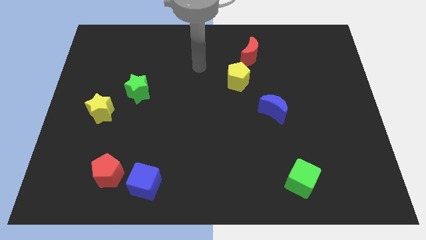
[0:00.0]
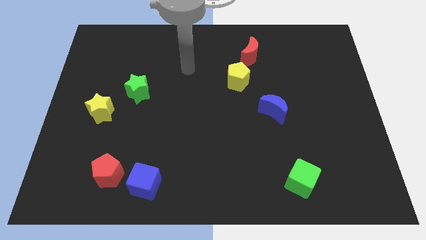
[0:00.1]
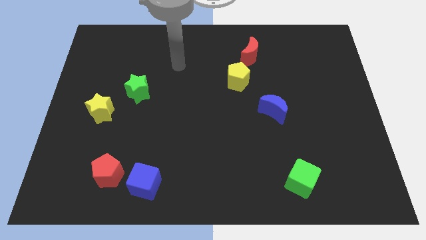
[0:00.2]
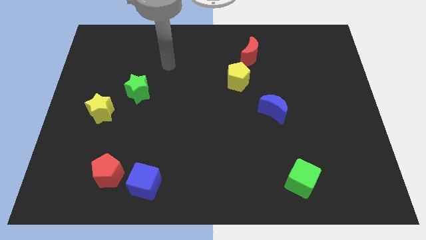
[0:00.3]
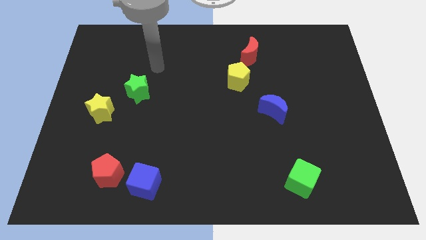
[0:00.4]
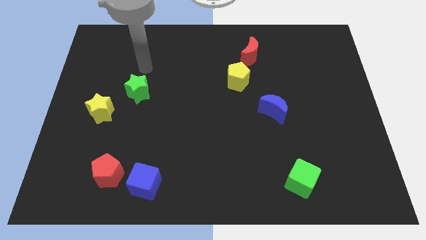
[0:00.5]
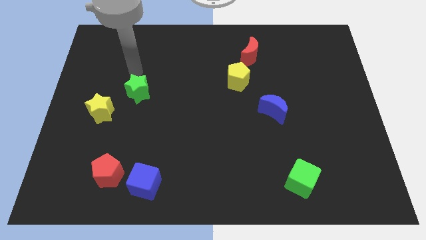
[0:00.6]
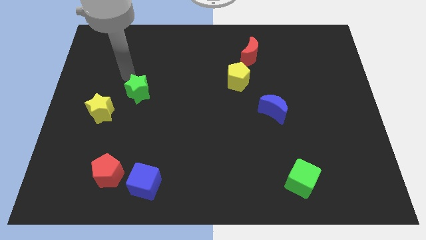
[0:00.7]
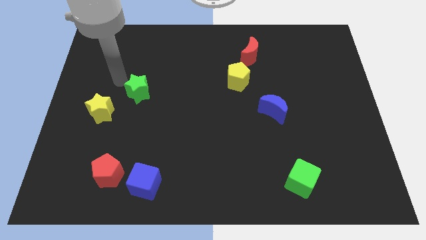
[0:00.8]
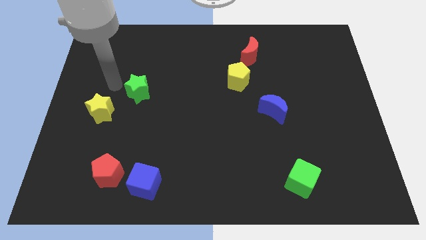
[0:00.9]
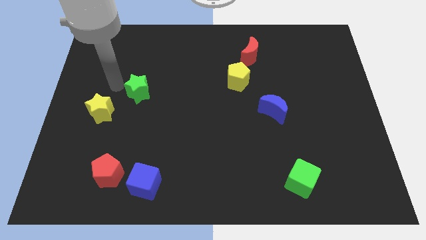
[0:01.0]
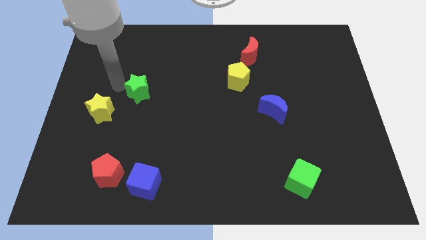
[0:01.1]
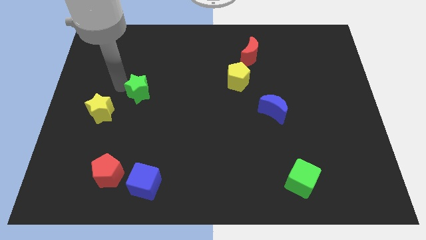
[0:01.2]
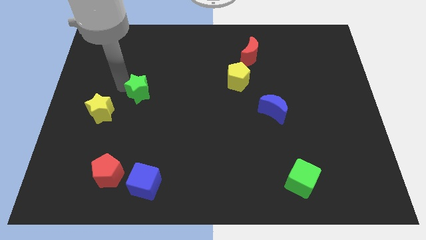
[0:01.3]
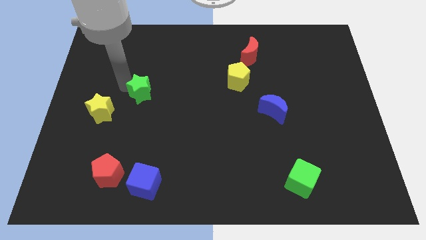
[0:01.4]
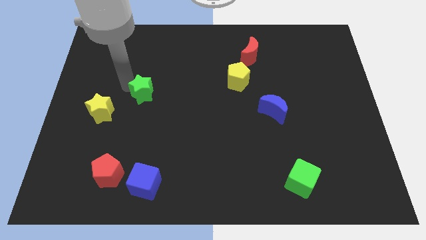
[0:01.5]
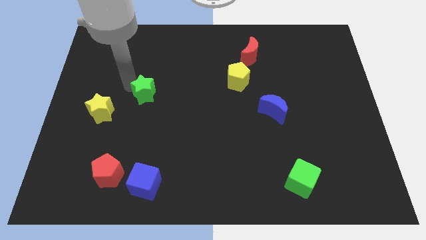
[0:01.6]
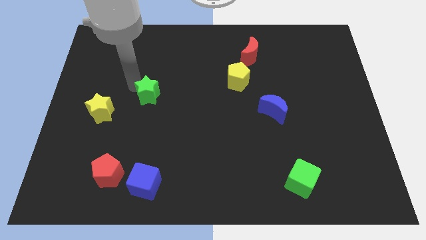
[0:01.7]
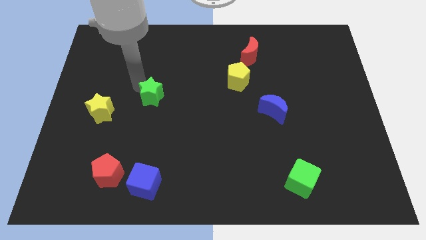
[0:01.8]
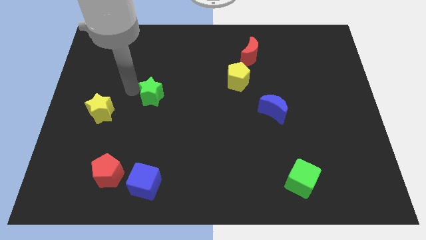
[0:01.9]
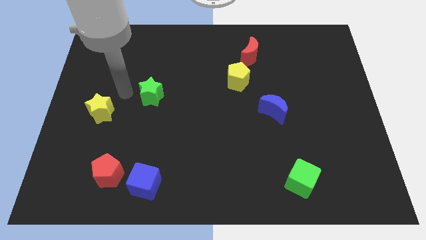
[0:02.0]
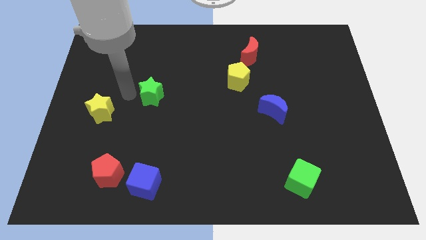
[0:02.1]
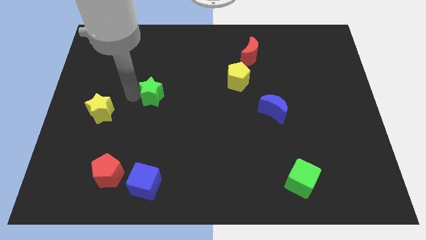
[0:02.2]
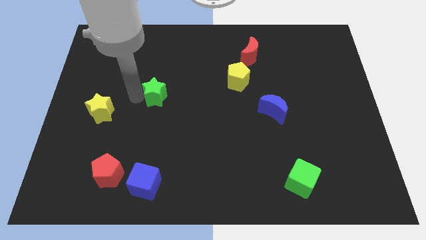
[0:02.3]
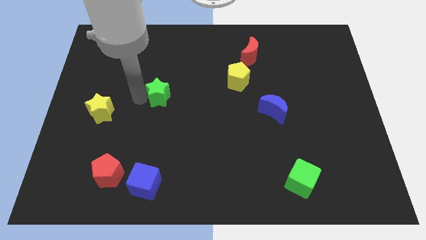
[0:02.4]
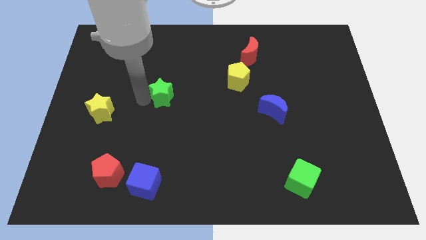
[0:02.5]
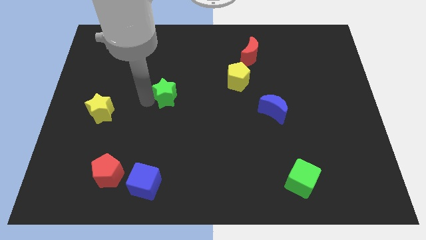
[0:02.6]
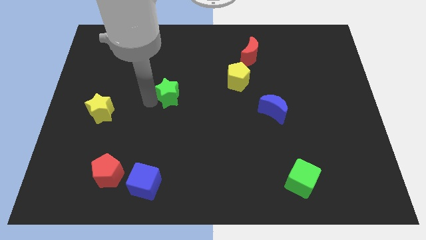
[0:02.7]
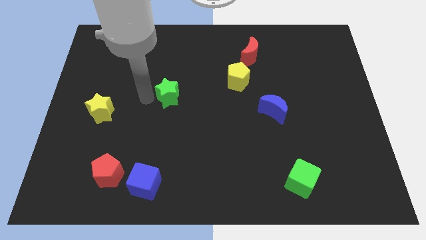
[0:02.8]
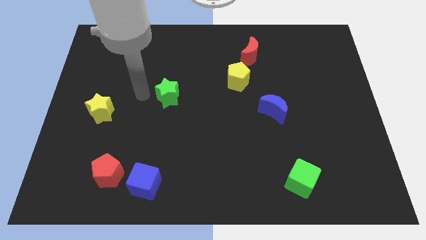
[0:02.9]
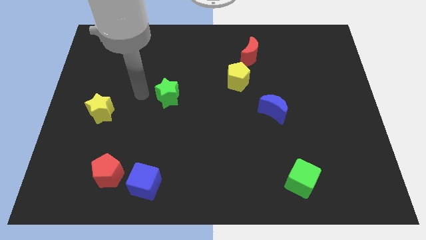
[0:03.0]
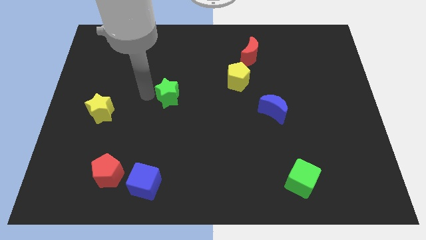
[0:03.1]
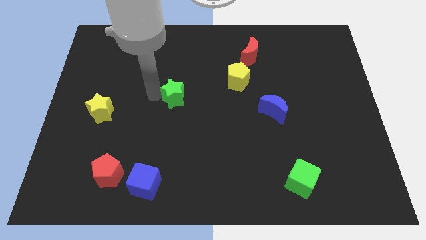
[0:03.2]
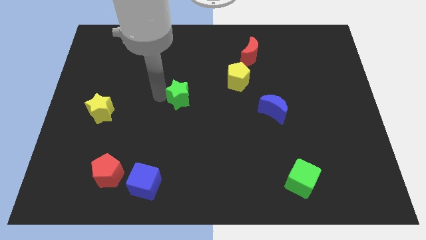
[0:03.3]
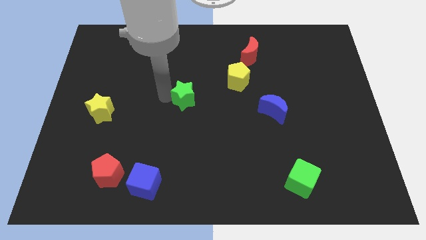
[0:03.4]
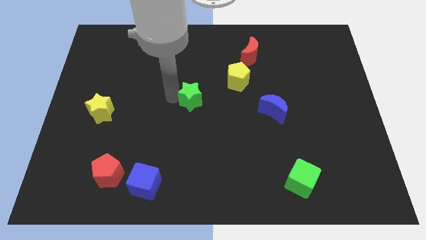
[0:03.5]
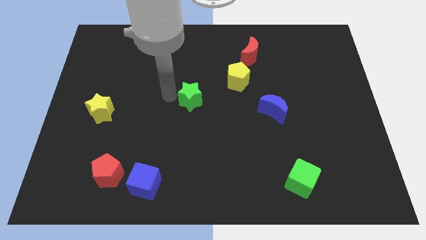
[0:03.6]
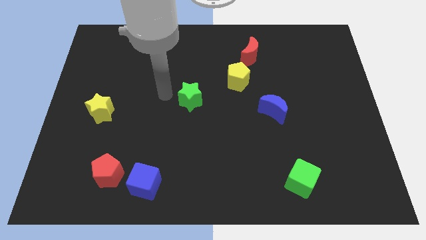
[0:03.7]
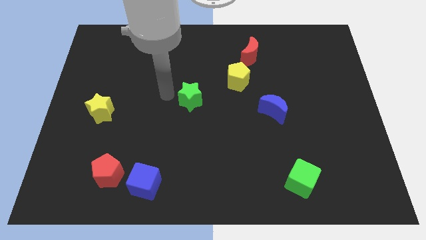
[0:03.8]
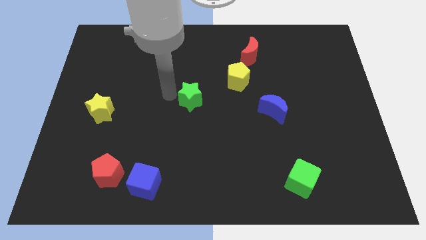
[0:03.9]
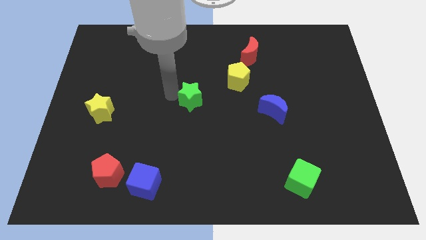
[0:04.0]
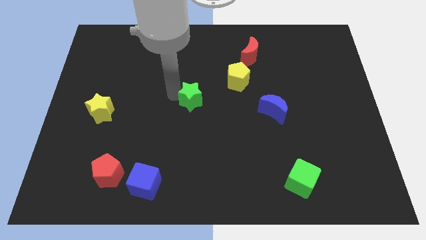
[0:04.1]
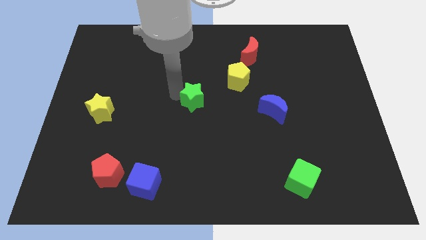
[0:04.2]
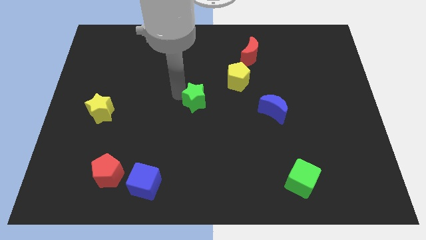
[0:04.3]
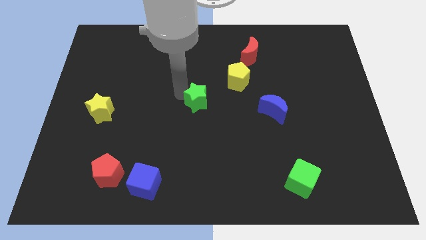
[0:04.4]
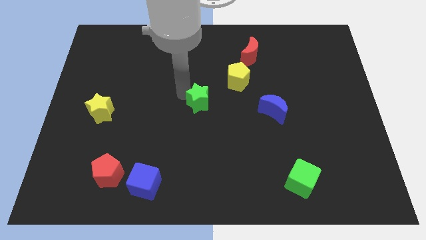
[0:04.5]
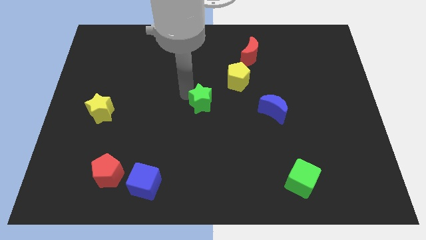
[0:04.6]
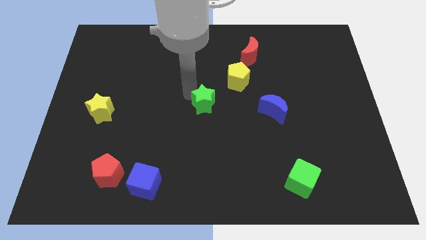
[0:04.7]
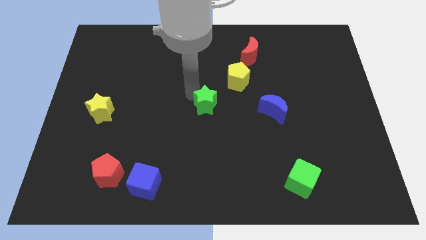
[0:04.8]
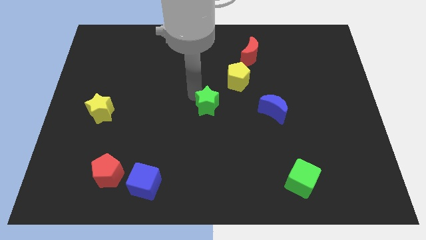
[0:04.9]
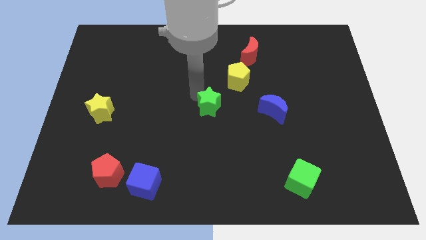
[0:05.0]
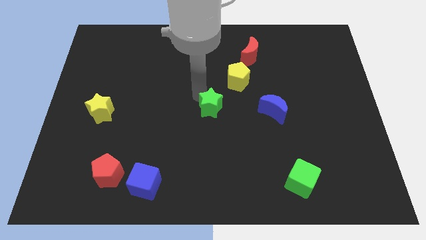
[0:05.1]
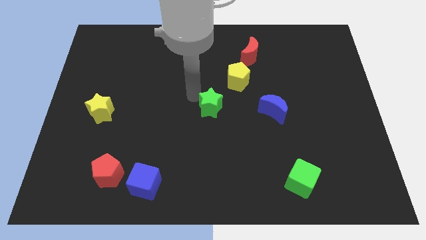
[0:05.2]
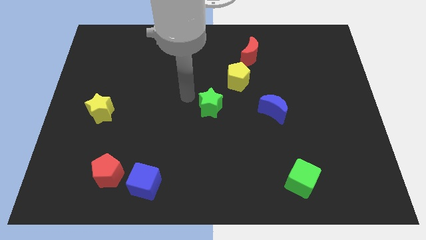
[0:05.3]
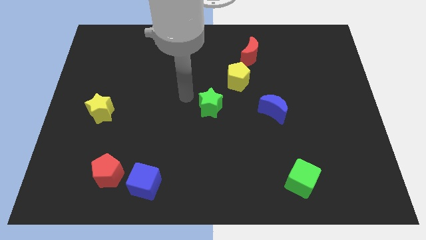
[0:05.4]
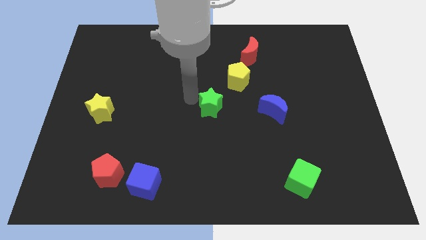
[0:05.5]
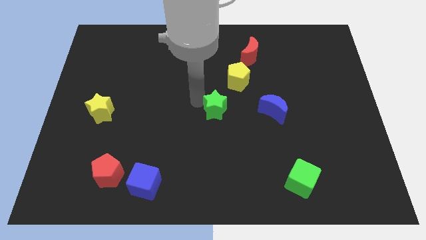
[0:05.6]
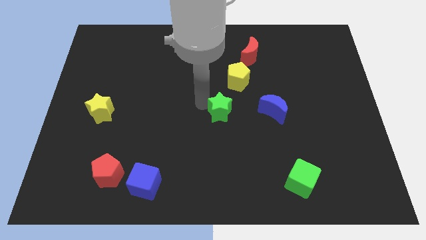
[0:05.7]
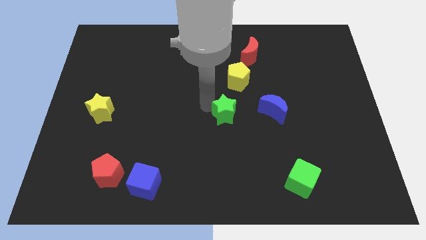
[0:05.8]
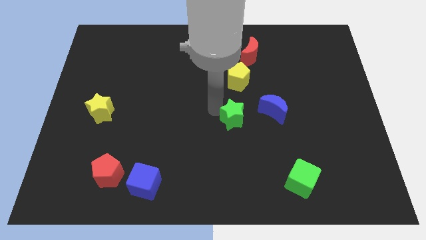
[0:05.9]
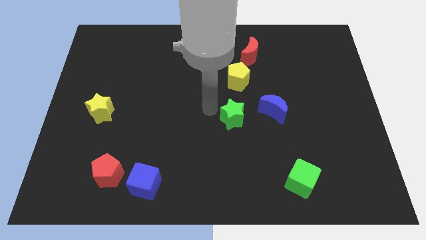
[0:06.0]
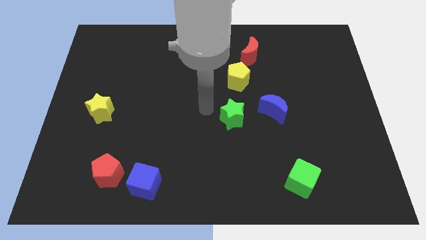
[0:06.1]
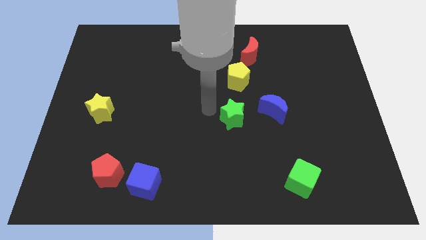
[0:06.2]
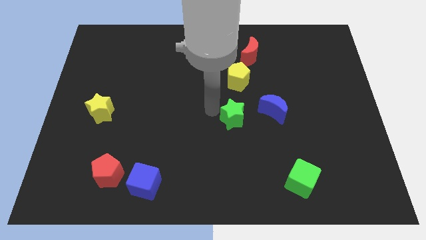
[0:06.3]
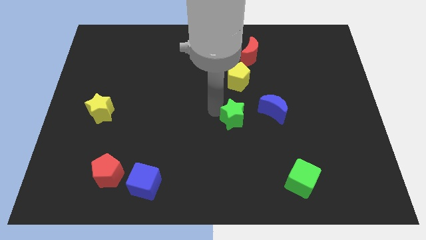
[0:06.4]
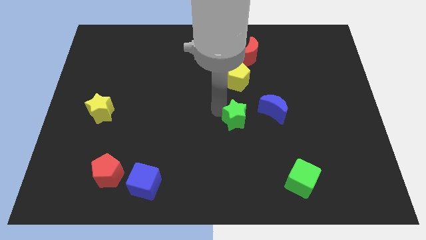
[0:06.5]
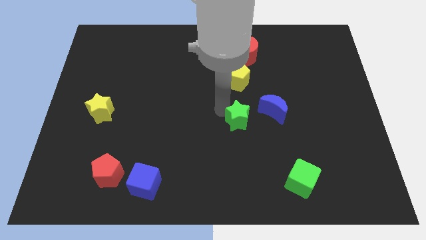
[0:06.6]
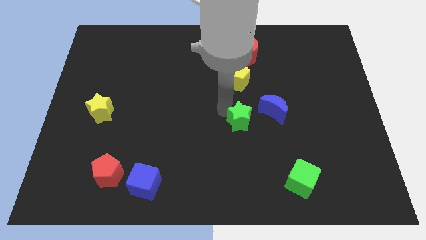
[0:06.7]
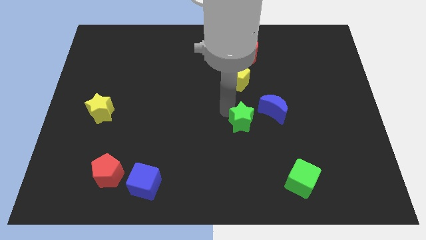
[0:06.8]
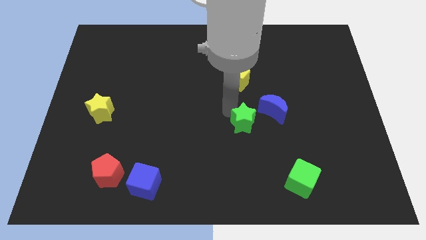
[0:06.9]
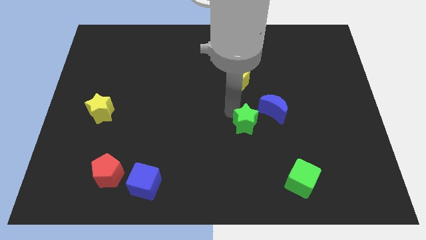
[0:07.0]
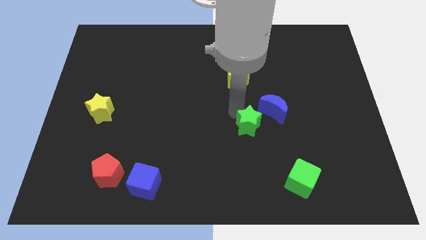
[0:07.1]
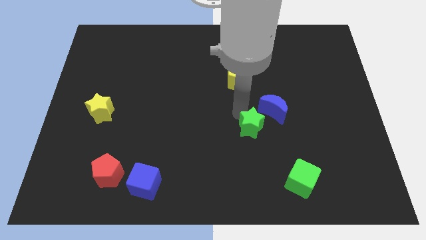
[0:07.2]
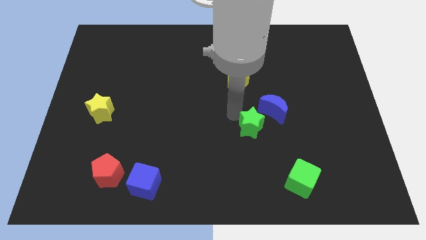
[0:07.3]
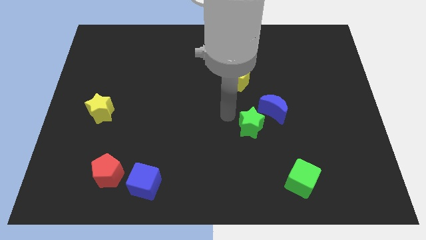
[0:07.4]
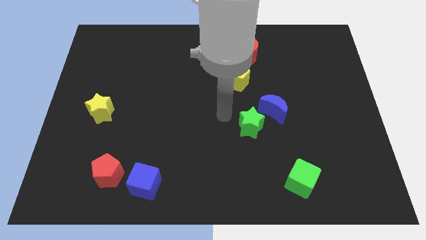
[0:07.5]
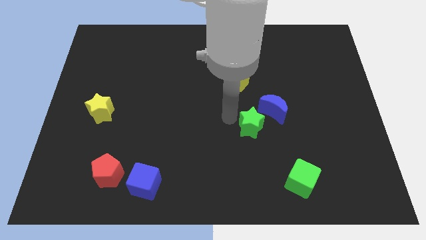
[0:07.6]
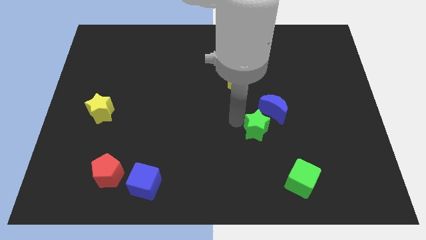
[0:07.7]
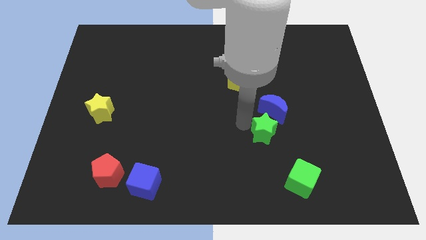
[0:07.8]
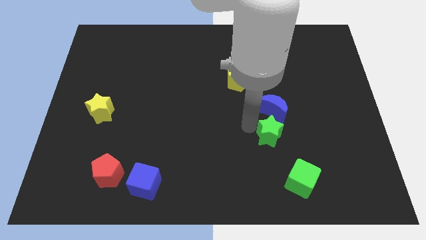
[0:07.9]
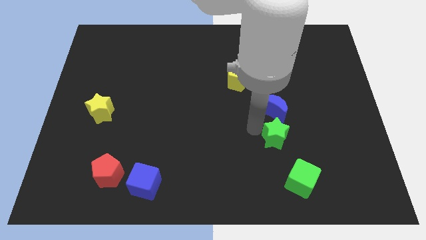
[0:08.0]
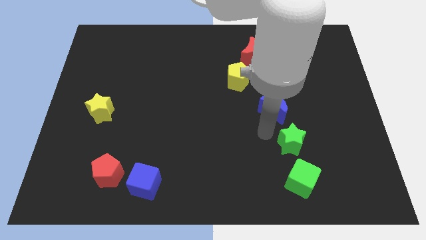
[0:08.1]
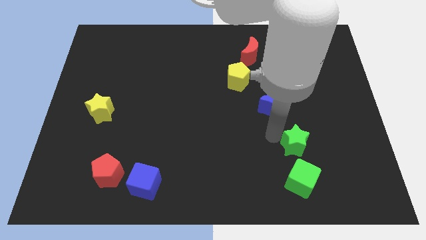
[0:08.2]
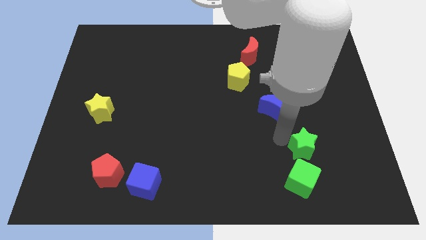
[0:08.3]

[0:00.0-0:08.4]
push the green star diagonally up and to the right of the green cube
